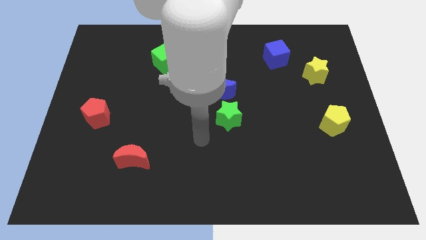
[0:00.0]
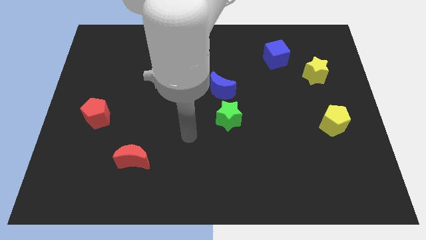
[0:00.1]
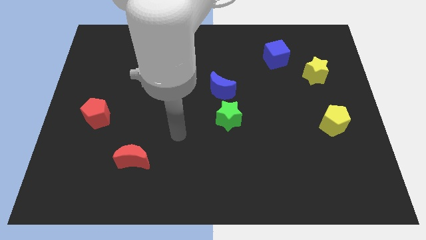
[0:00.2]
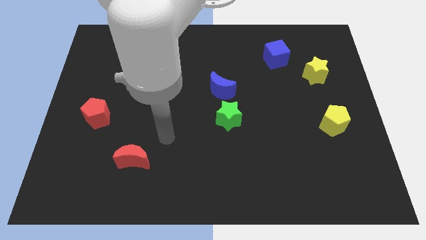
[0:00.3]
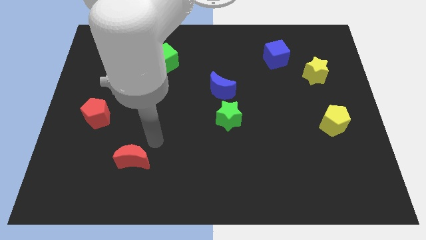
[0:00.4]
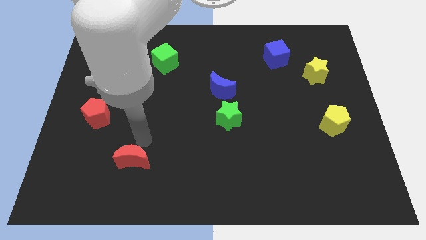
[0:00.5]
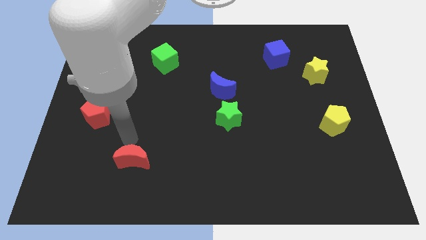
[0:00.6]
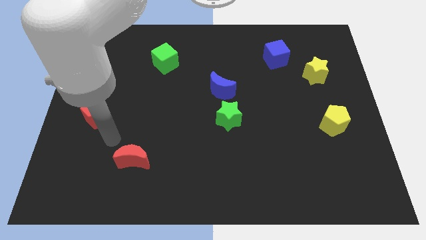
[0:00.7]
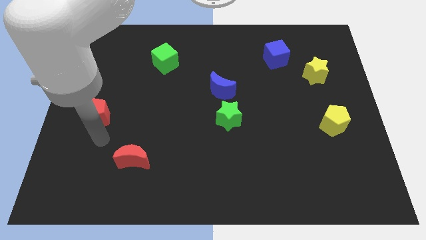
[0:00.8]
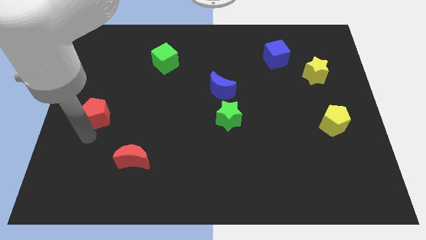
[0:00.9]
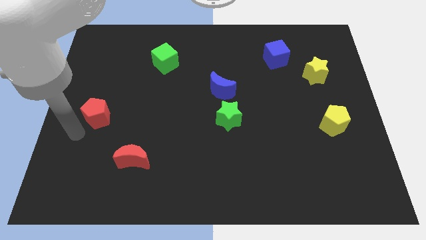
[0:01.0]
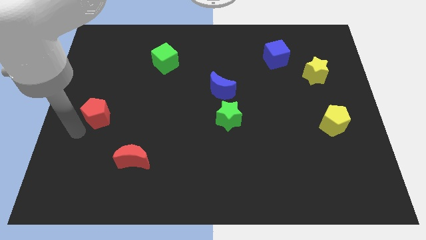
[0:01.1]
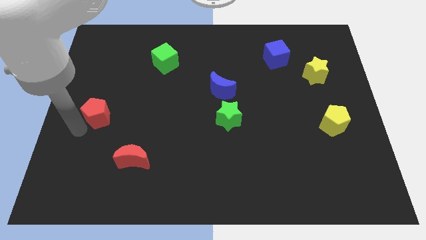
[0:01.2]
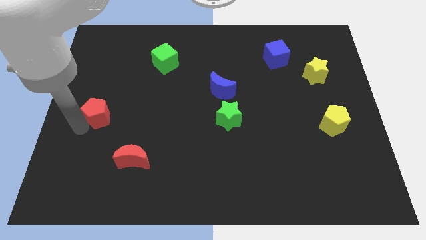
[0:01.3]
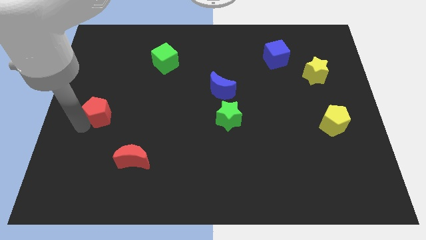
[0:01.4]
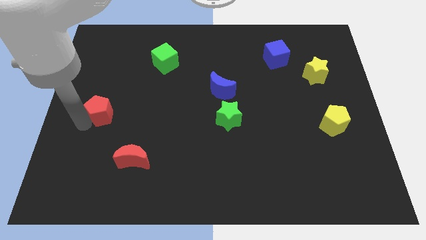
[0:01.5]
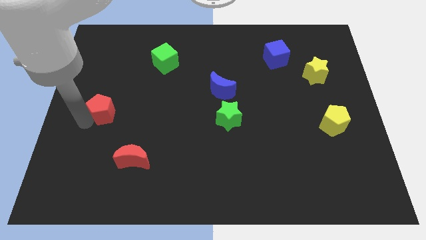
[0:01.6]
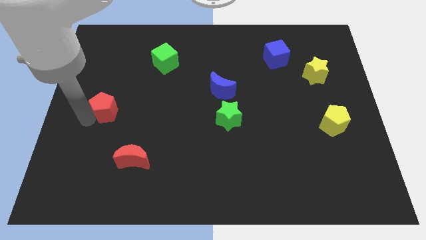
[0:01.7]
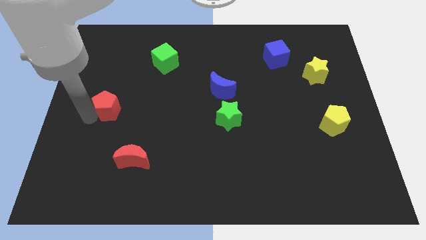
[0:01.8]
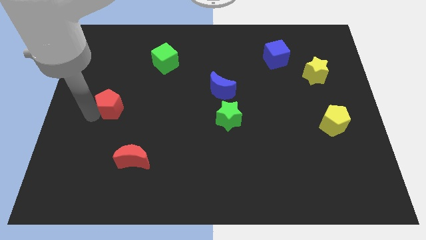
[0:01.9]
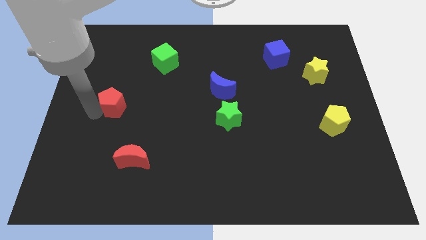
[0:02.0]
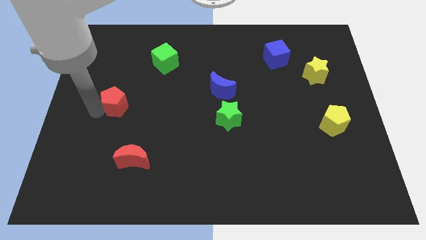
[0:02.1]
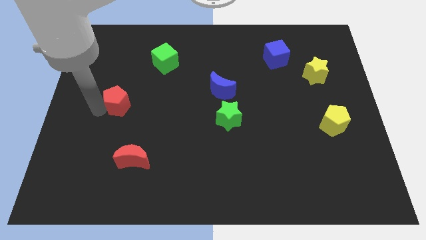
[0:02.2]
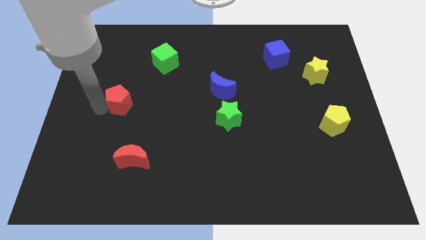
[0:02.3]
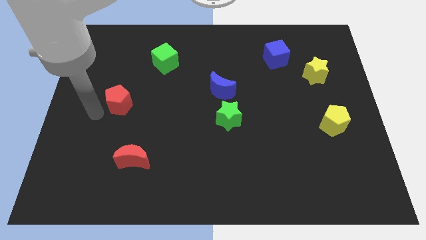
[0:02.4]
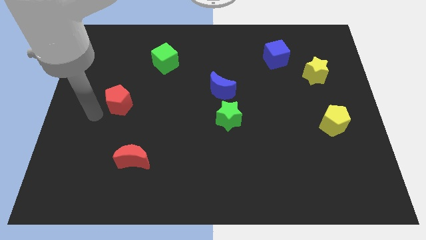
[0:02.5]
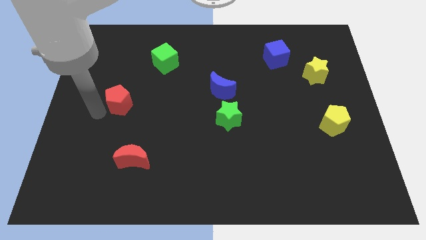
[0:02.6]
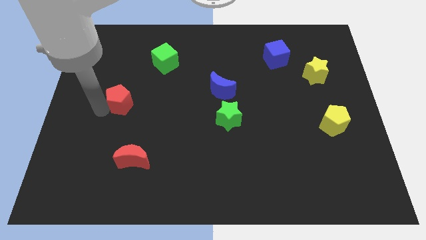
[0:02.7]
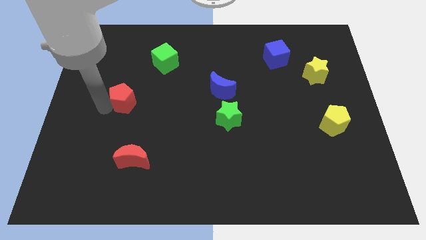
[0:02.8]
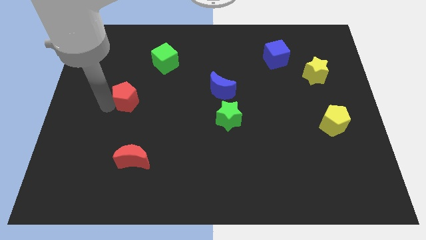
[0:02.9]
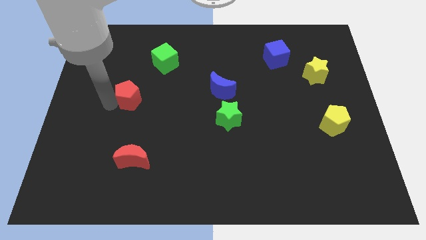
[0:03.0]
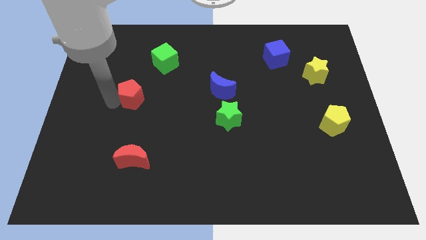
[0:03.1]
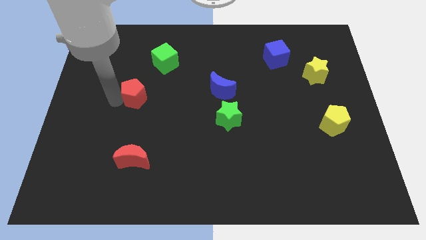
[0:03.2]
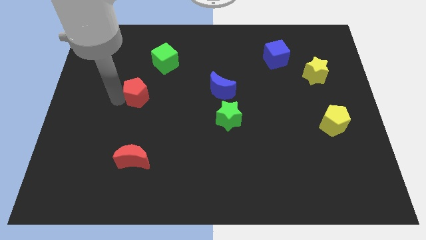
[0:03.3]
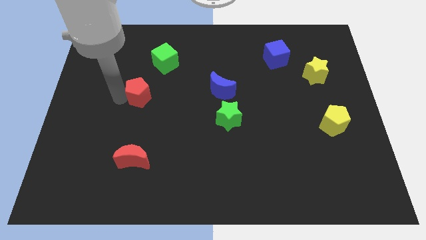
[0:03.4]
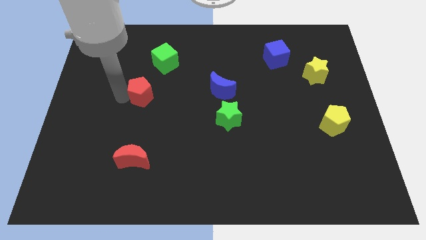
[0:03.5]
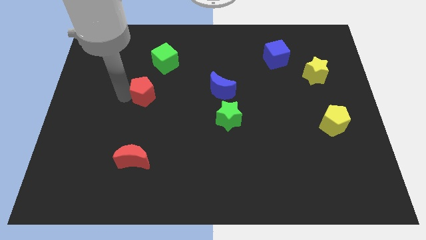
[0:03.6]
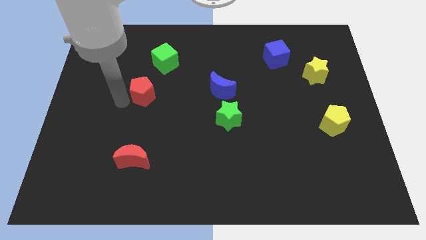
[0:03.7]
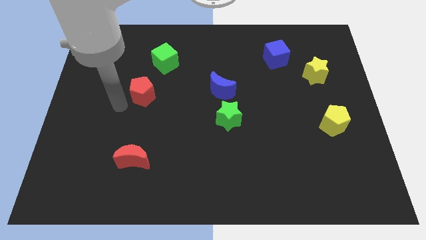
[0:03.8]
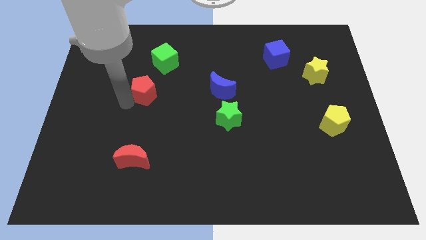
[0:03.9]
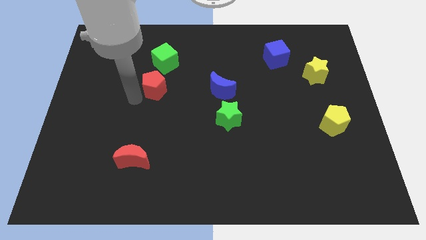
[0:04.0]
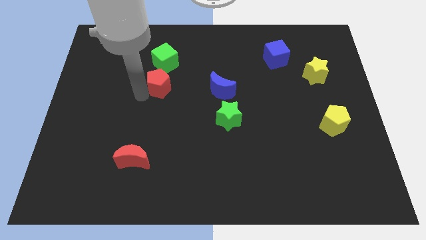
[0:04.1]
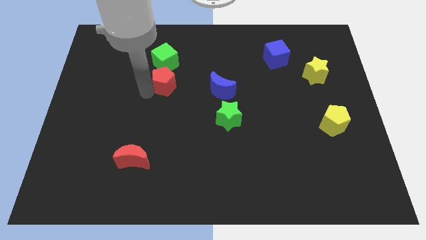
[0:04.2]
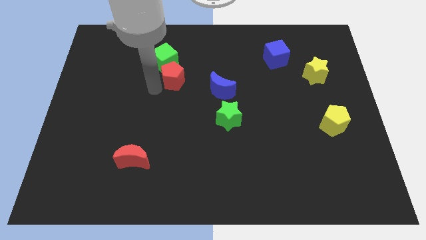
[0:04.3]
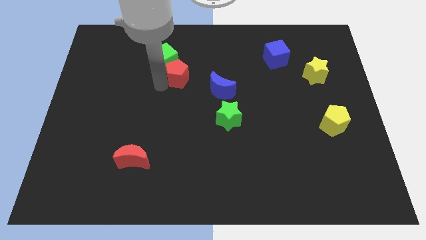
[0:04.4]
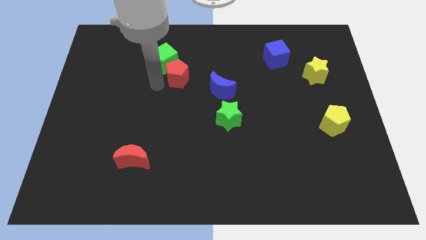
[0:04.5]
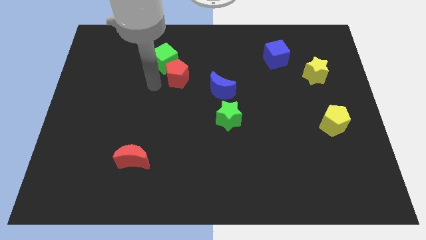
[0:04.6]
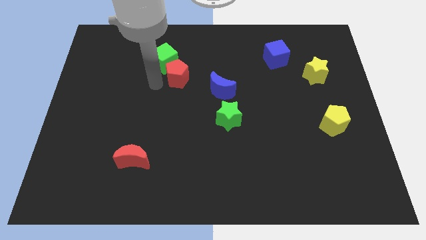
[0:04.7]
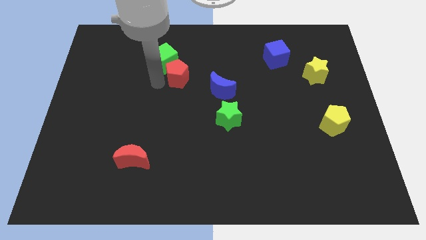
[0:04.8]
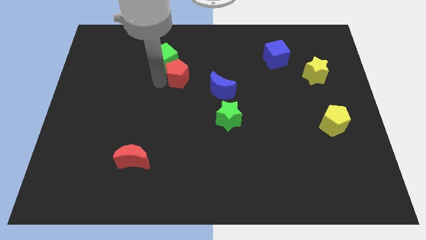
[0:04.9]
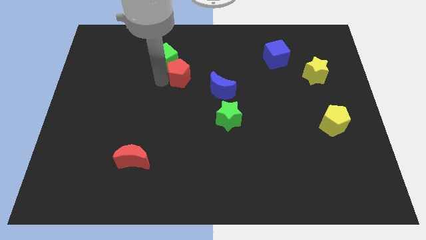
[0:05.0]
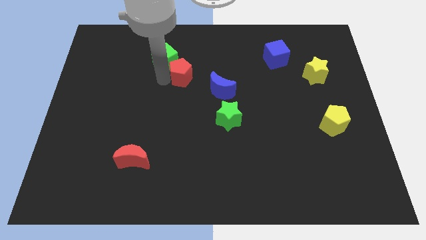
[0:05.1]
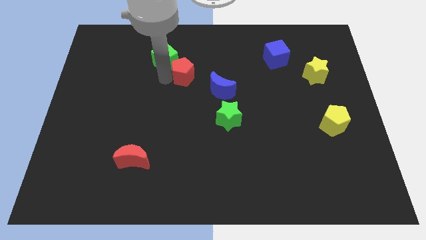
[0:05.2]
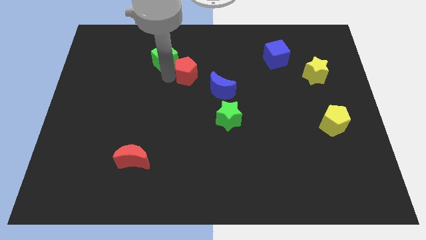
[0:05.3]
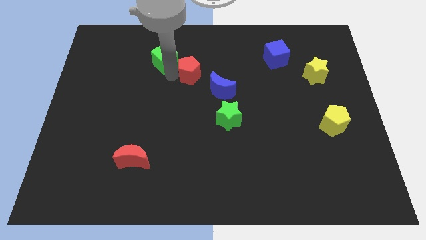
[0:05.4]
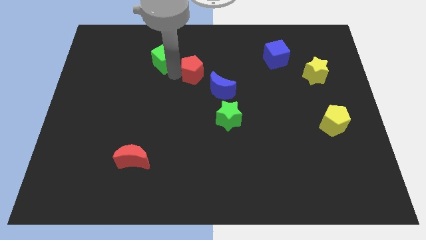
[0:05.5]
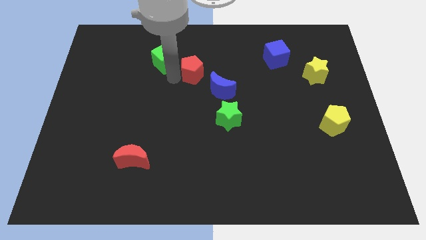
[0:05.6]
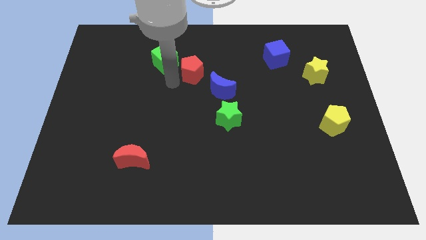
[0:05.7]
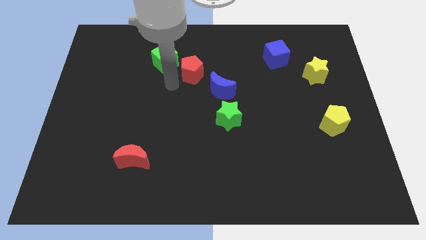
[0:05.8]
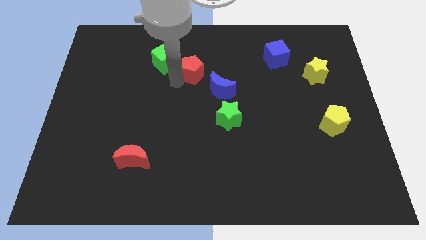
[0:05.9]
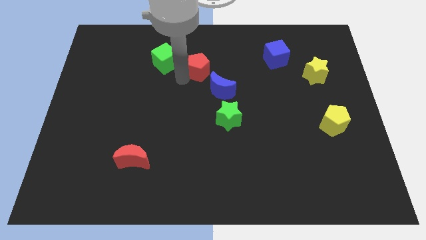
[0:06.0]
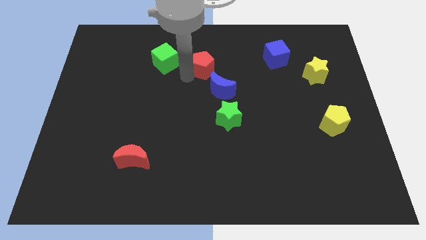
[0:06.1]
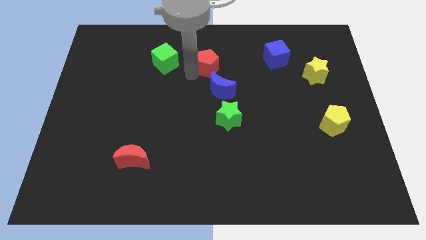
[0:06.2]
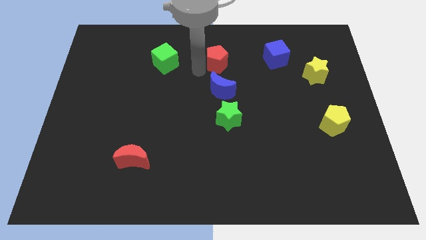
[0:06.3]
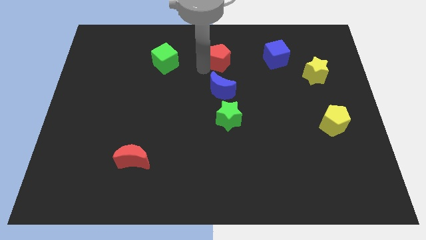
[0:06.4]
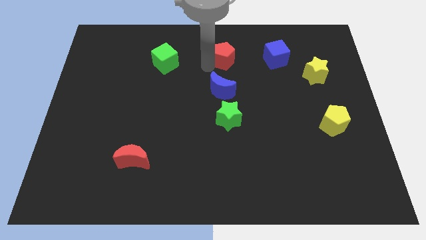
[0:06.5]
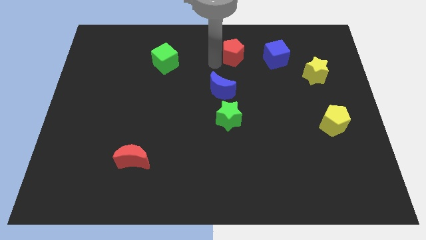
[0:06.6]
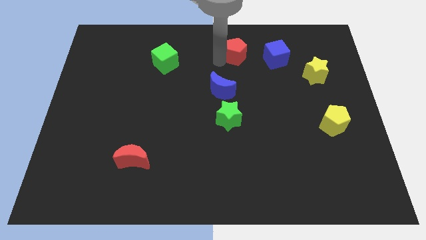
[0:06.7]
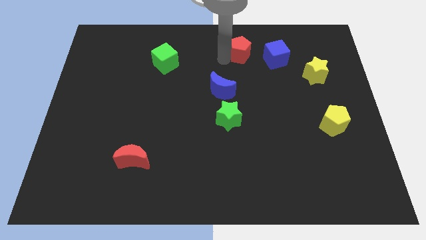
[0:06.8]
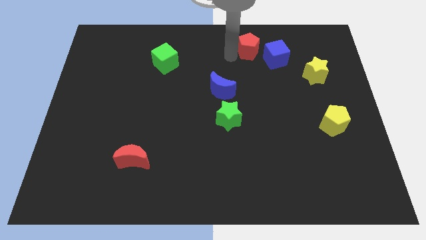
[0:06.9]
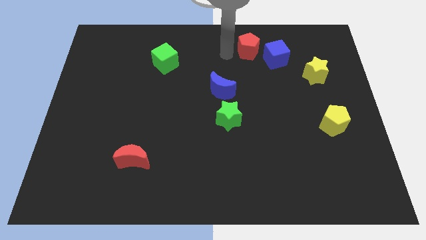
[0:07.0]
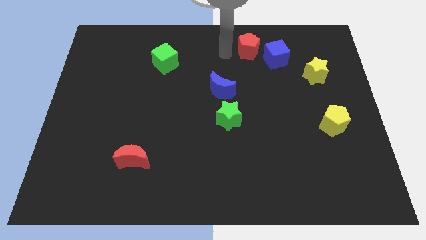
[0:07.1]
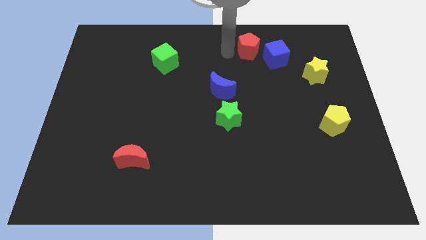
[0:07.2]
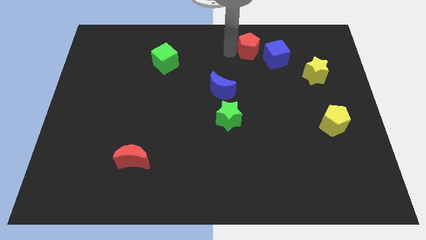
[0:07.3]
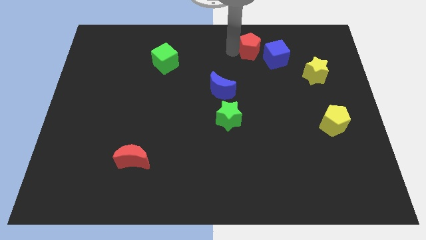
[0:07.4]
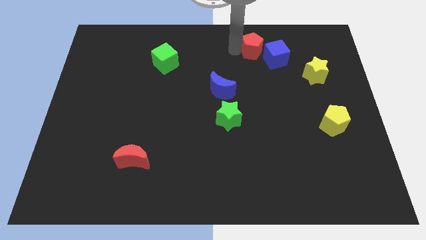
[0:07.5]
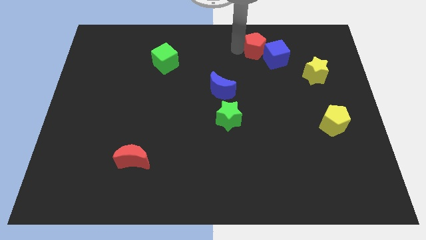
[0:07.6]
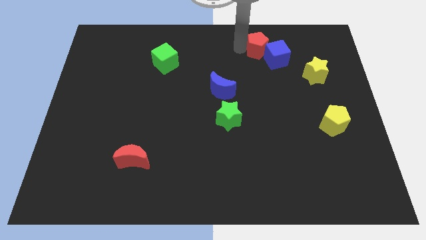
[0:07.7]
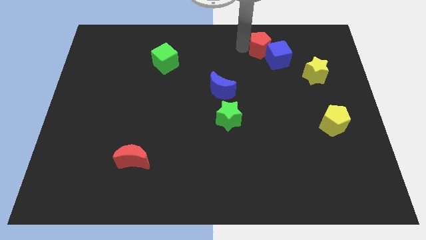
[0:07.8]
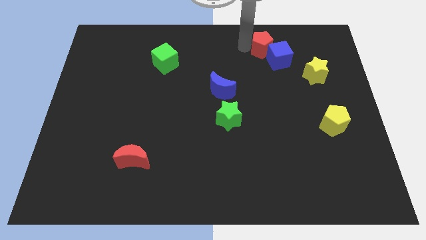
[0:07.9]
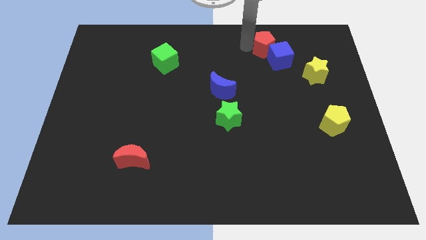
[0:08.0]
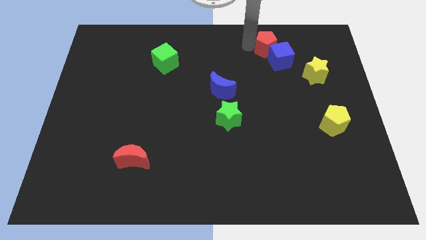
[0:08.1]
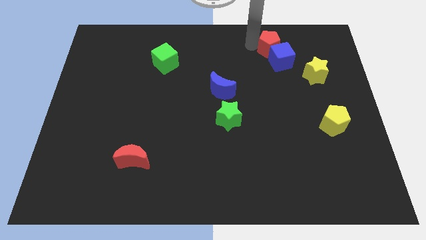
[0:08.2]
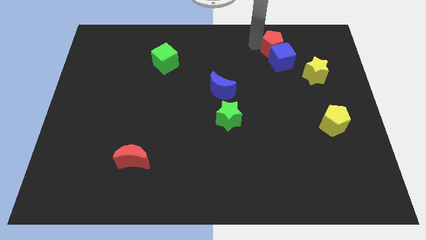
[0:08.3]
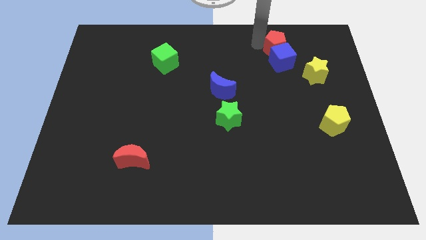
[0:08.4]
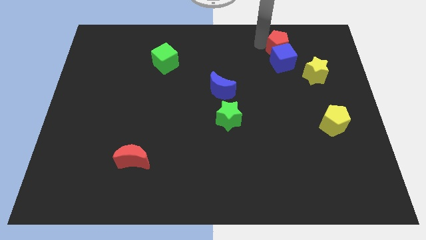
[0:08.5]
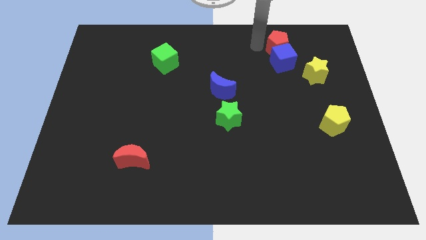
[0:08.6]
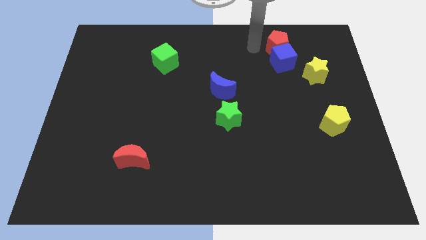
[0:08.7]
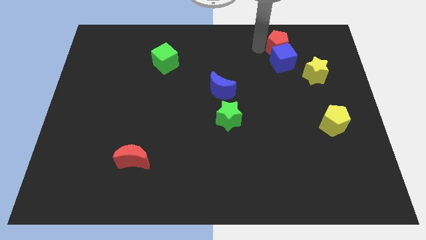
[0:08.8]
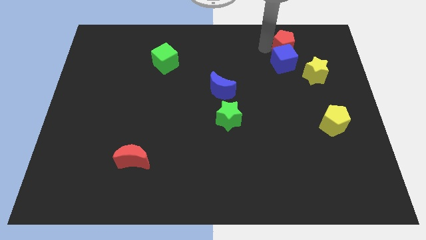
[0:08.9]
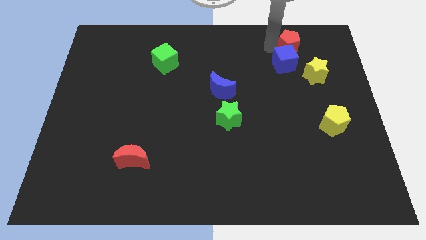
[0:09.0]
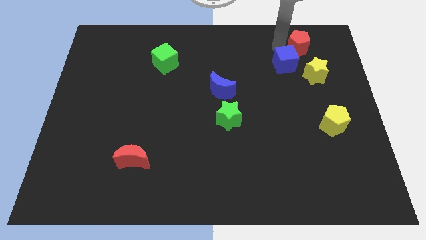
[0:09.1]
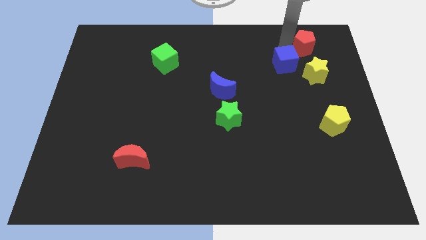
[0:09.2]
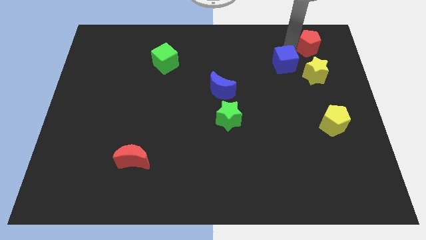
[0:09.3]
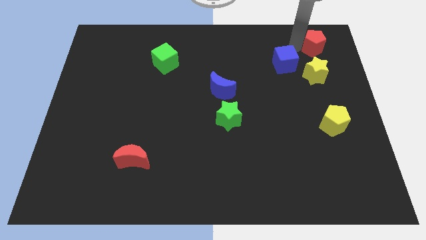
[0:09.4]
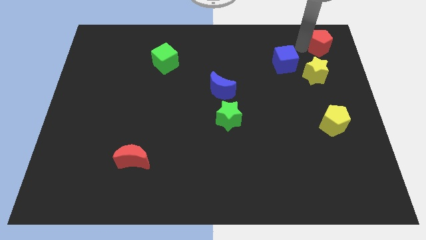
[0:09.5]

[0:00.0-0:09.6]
push the red pentagon to the top right corner
